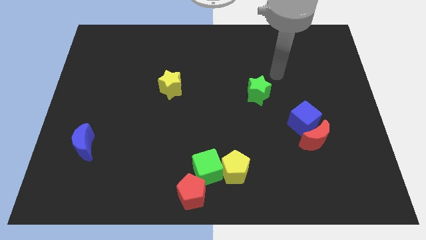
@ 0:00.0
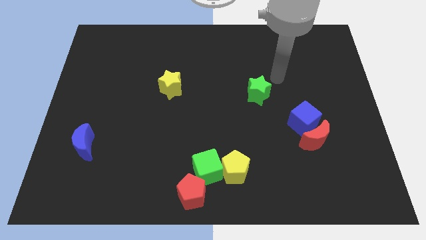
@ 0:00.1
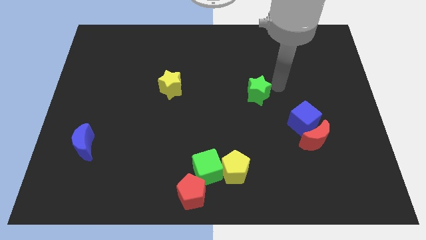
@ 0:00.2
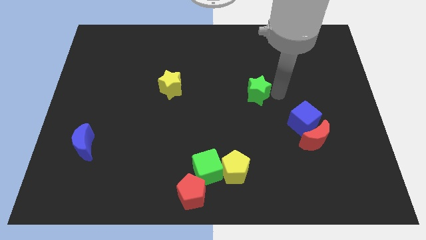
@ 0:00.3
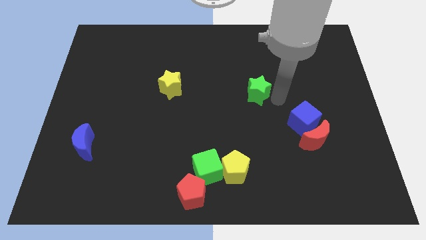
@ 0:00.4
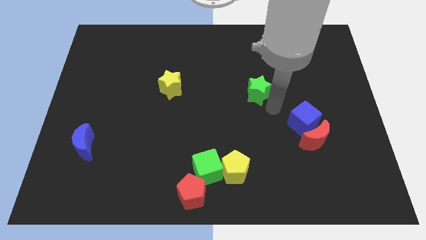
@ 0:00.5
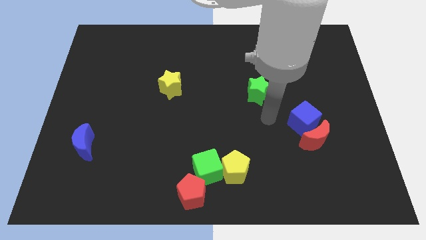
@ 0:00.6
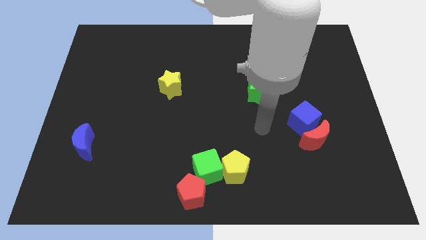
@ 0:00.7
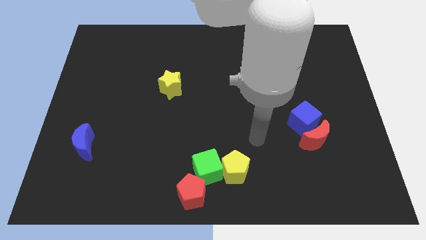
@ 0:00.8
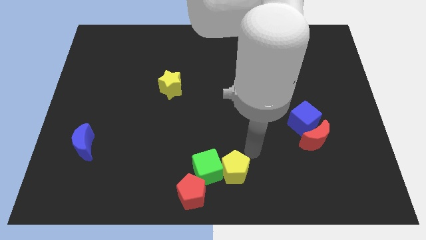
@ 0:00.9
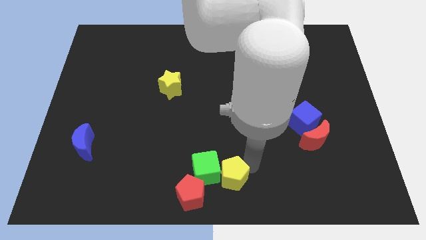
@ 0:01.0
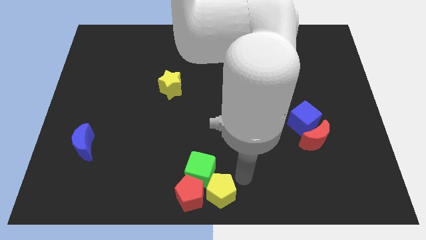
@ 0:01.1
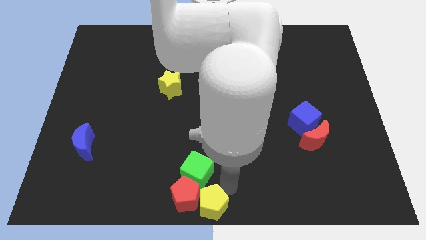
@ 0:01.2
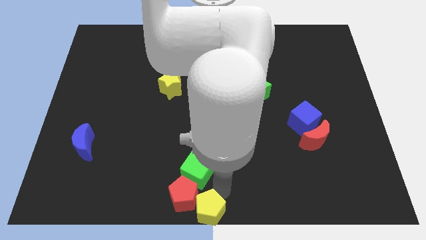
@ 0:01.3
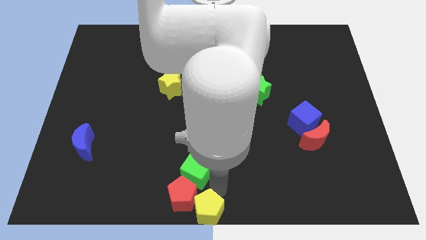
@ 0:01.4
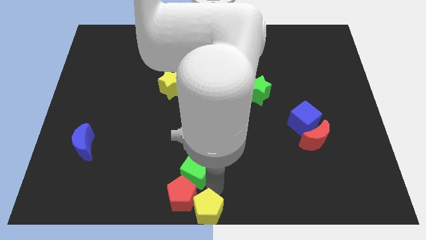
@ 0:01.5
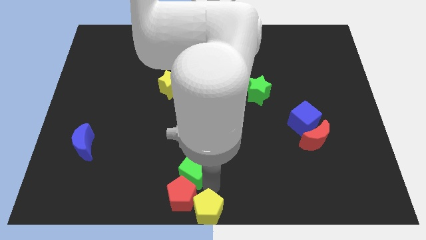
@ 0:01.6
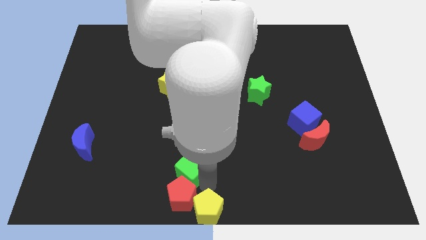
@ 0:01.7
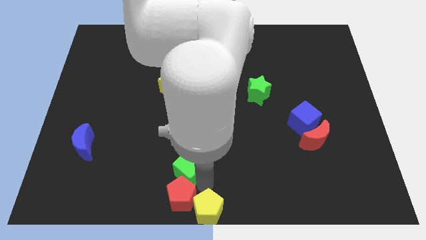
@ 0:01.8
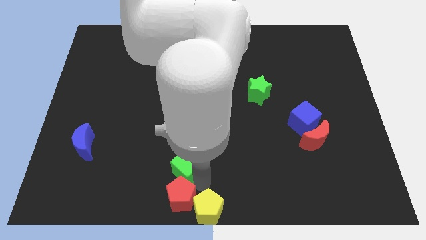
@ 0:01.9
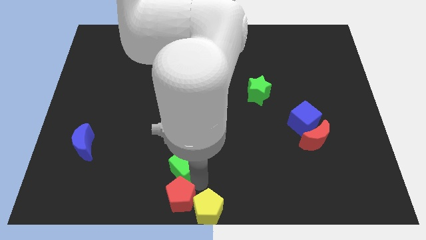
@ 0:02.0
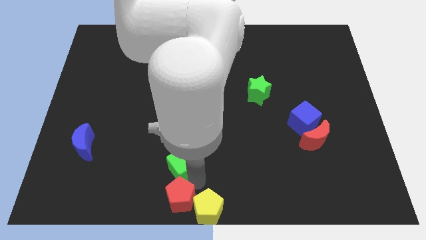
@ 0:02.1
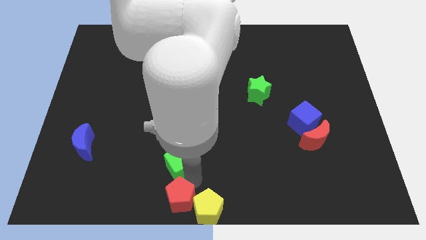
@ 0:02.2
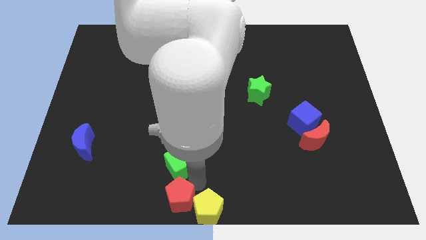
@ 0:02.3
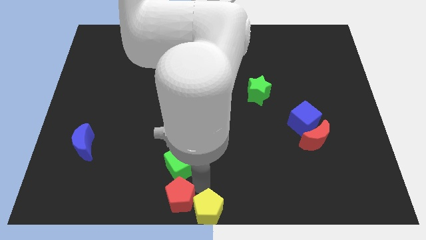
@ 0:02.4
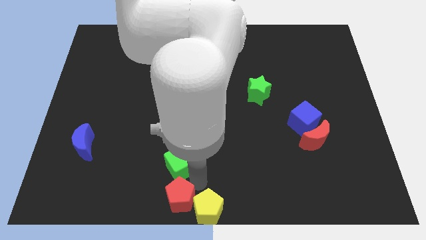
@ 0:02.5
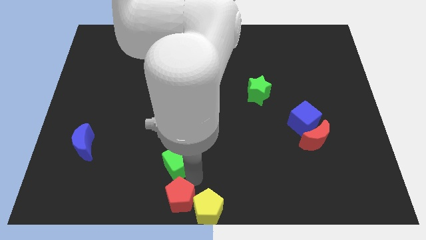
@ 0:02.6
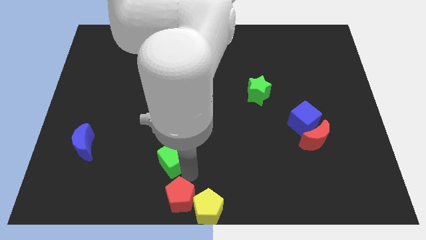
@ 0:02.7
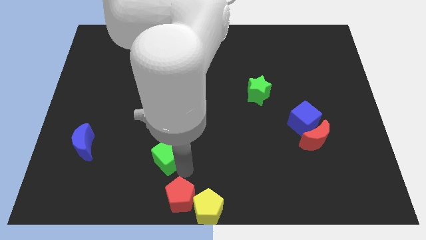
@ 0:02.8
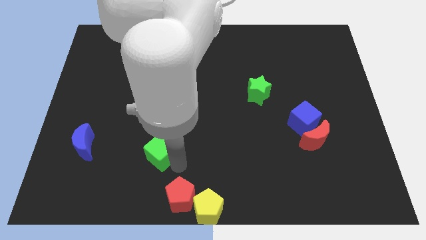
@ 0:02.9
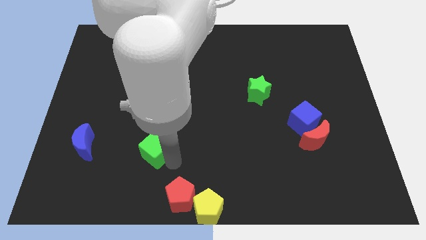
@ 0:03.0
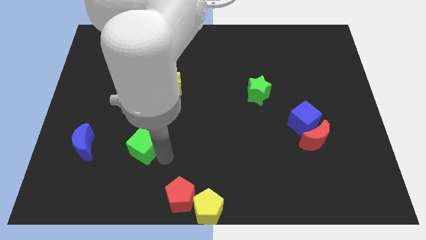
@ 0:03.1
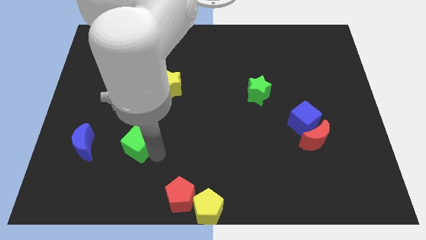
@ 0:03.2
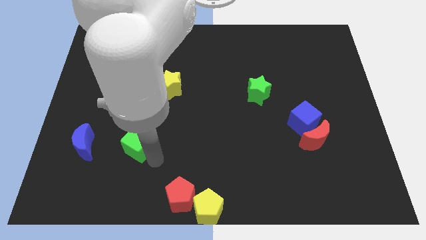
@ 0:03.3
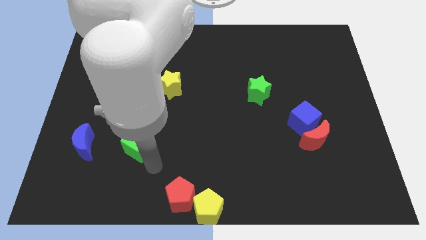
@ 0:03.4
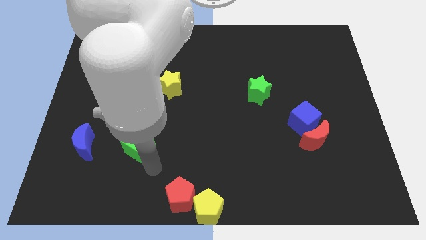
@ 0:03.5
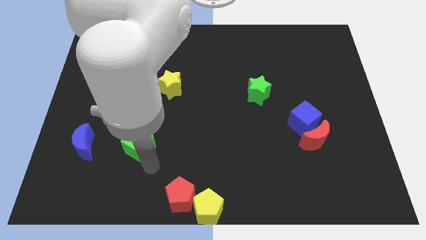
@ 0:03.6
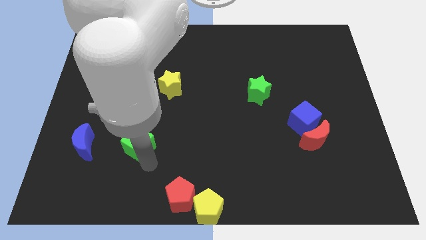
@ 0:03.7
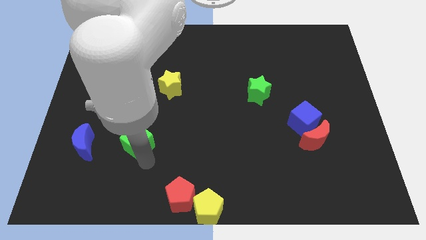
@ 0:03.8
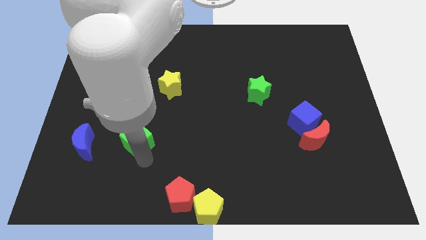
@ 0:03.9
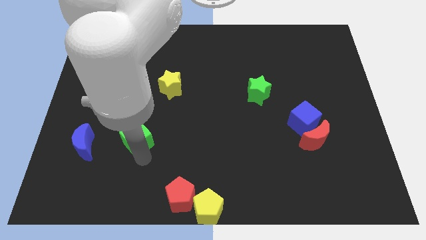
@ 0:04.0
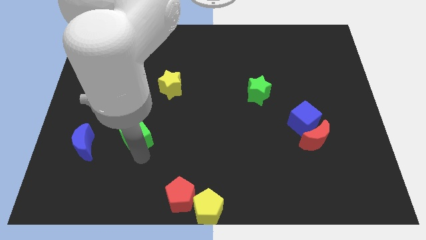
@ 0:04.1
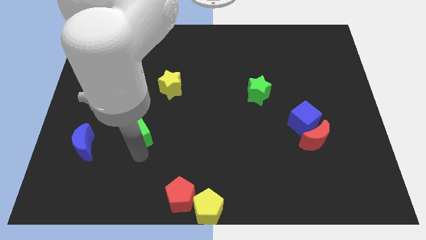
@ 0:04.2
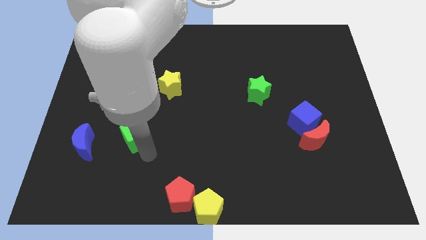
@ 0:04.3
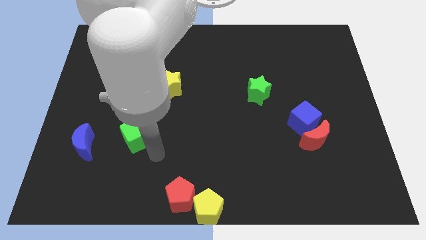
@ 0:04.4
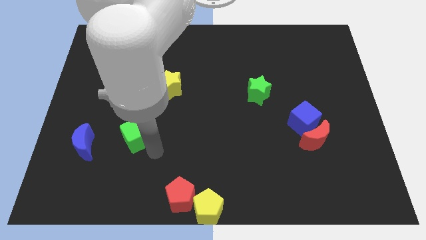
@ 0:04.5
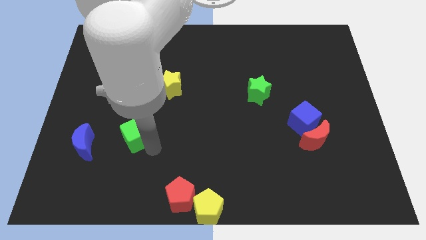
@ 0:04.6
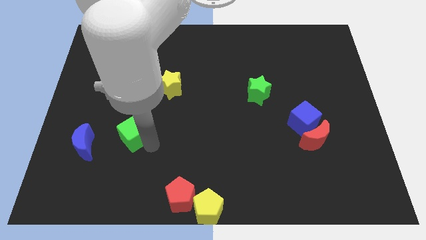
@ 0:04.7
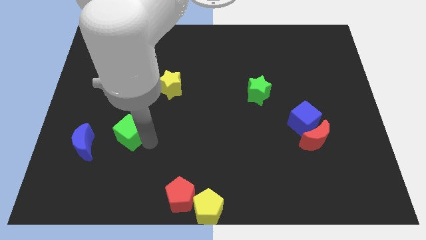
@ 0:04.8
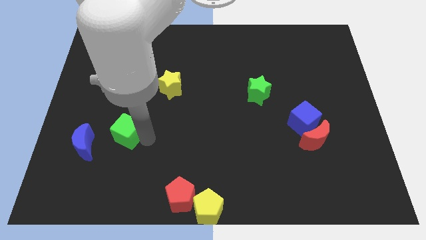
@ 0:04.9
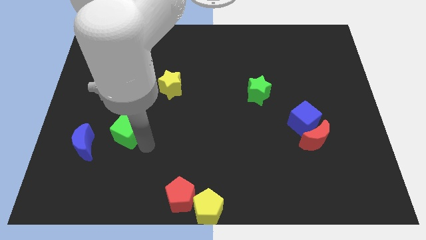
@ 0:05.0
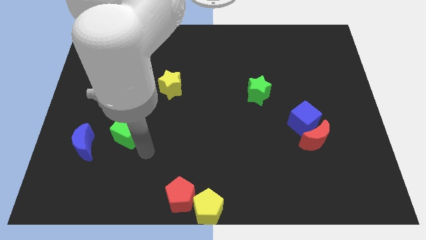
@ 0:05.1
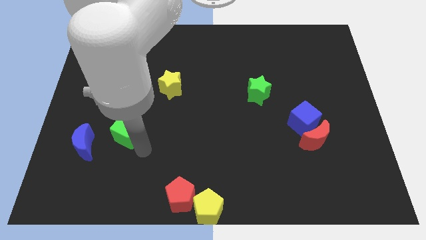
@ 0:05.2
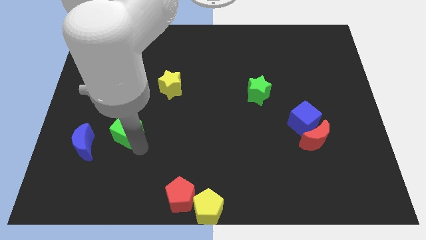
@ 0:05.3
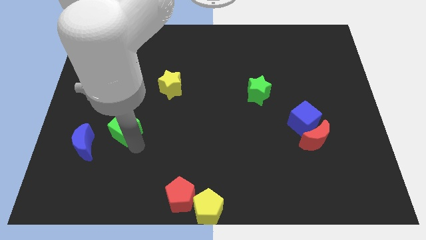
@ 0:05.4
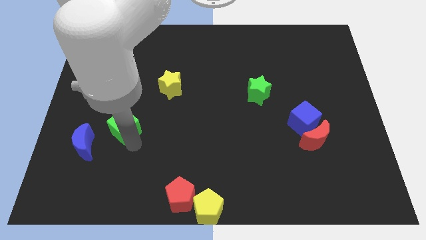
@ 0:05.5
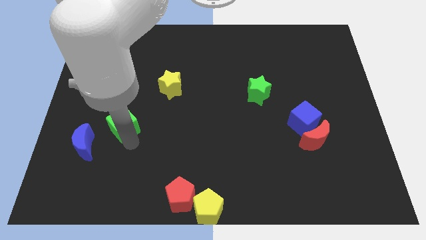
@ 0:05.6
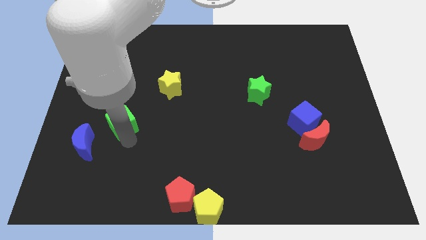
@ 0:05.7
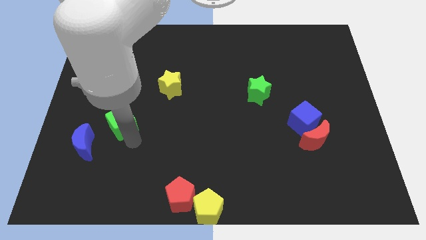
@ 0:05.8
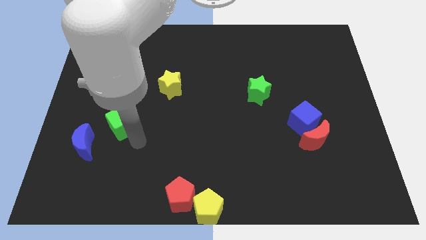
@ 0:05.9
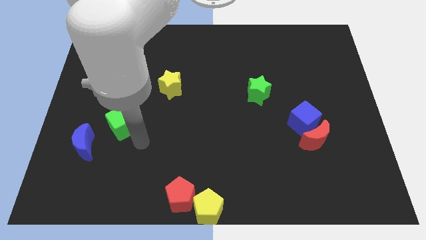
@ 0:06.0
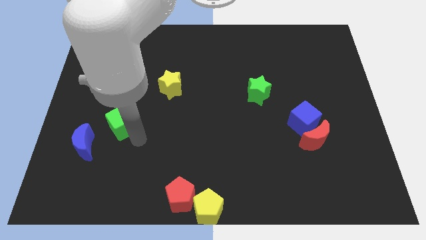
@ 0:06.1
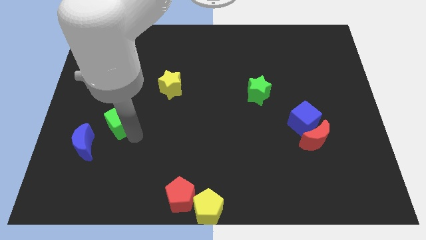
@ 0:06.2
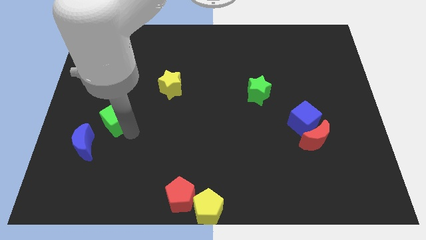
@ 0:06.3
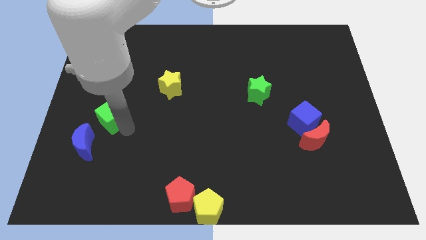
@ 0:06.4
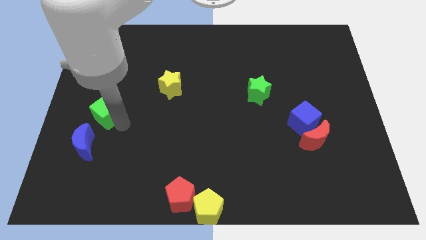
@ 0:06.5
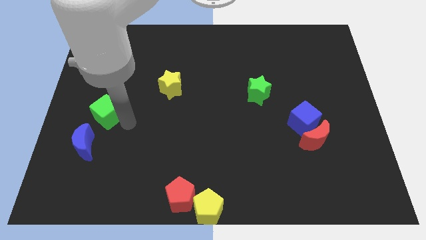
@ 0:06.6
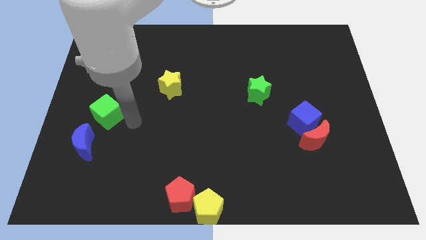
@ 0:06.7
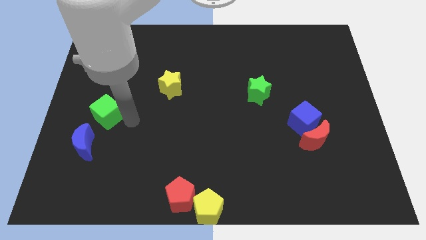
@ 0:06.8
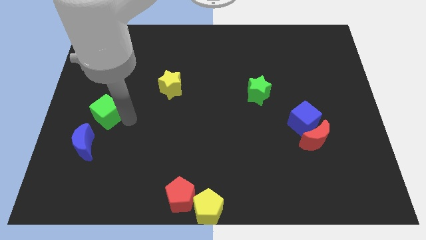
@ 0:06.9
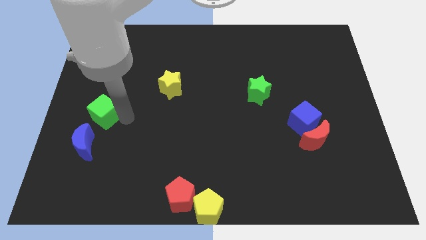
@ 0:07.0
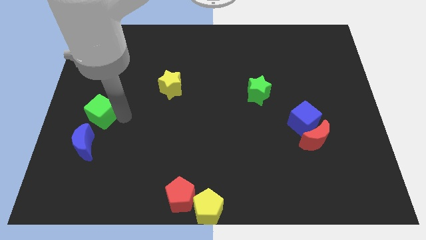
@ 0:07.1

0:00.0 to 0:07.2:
slide the green cube to the center left
